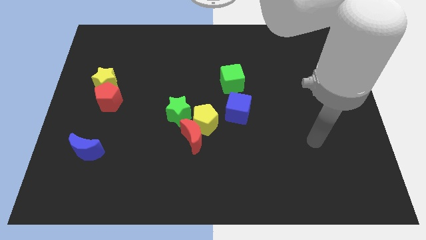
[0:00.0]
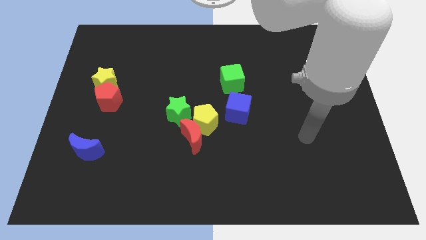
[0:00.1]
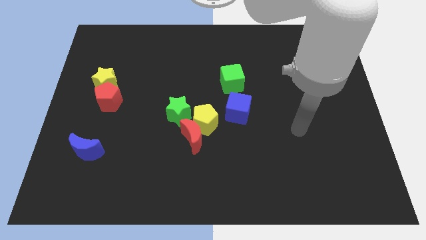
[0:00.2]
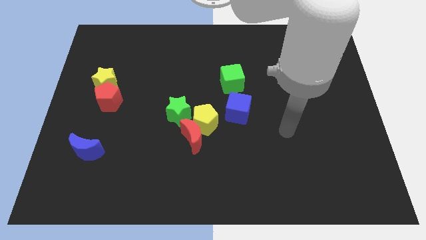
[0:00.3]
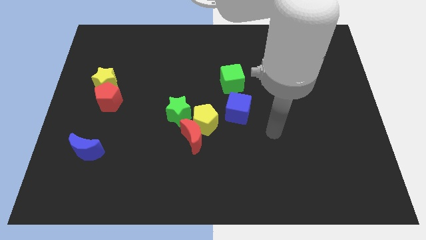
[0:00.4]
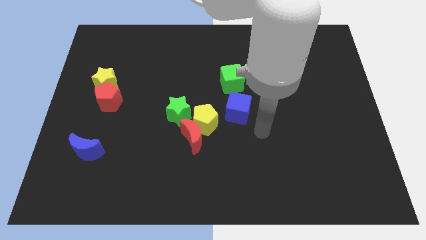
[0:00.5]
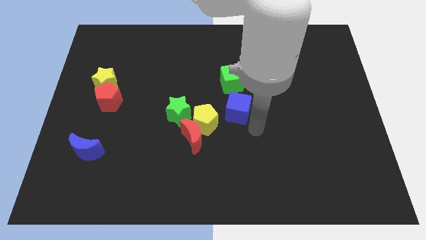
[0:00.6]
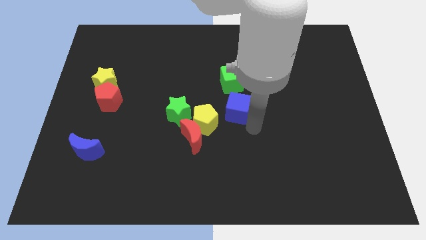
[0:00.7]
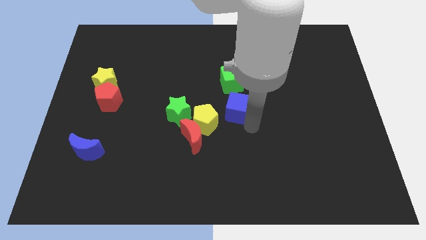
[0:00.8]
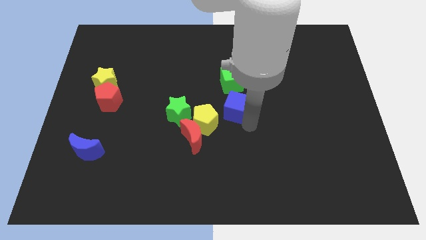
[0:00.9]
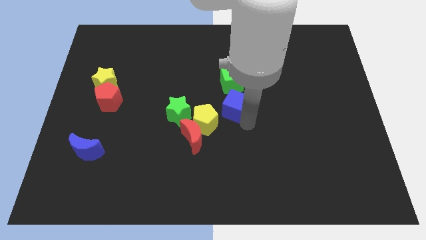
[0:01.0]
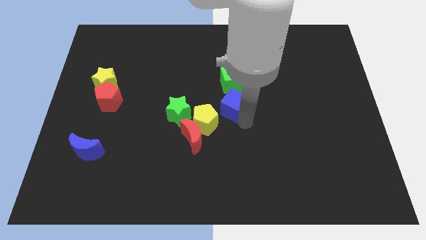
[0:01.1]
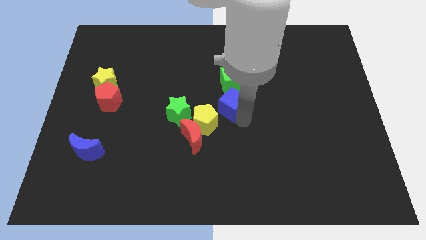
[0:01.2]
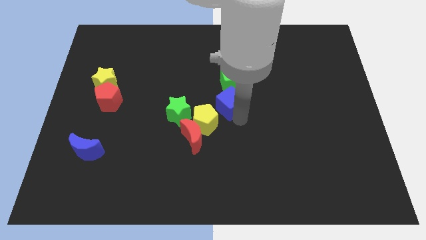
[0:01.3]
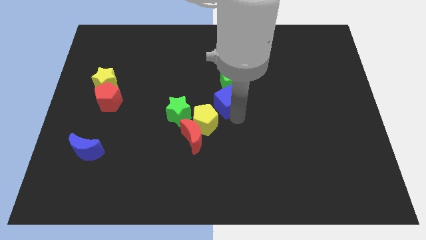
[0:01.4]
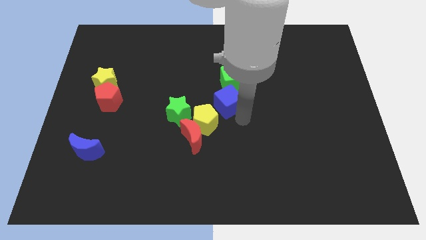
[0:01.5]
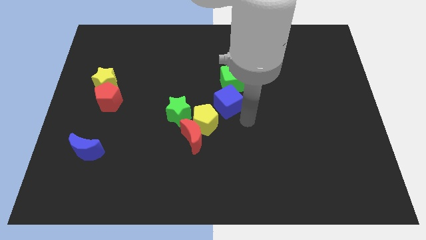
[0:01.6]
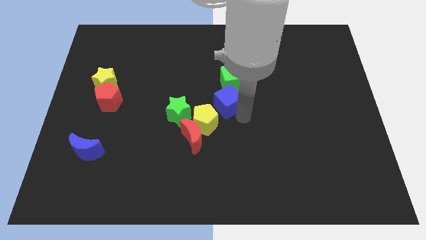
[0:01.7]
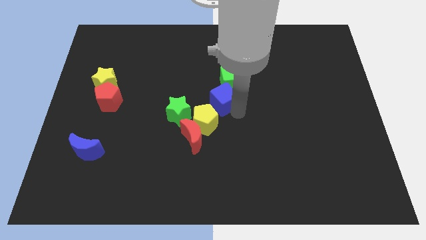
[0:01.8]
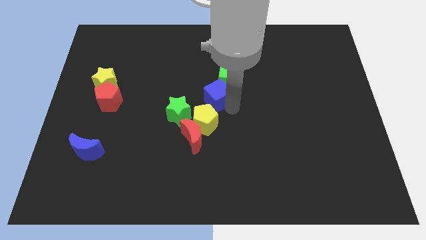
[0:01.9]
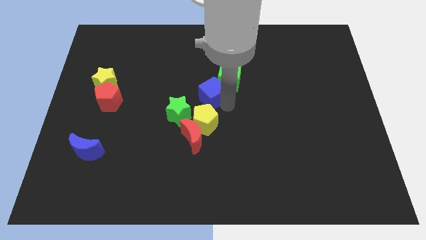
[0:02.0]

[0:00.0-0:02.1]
push the blue cube somewhat up and left

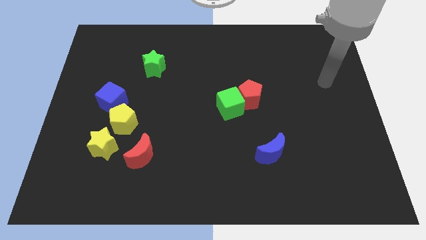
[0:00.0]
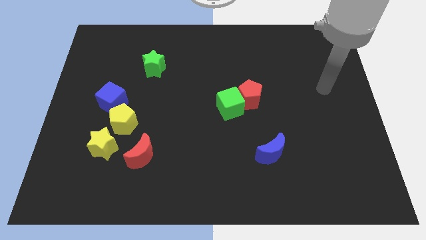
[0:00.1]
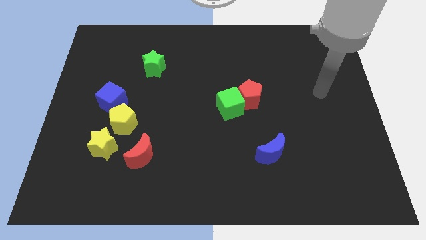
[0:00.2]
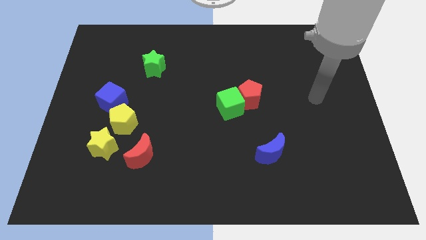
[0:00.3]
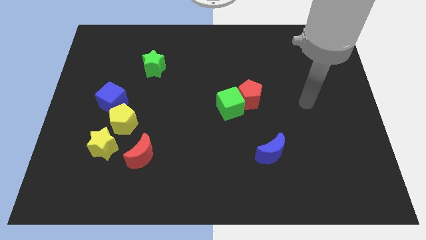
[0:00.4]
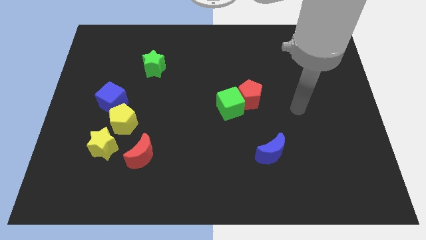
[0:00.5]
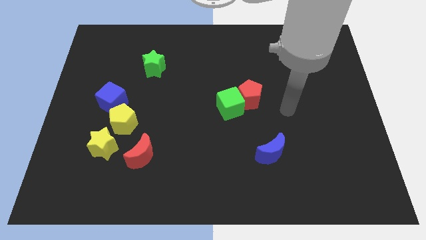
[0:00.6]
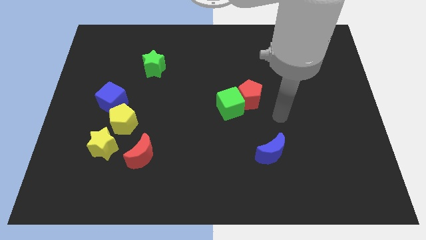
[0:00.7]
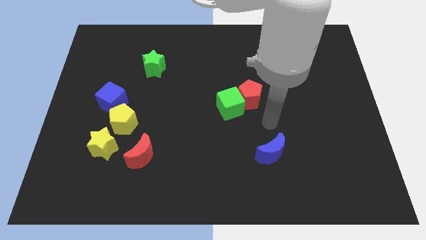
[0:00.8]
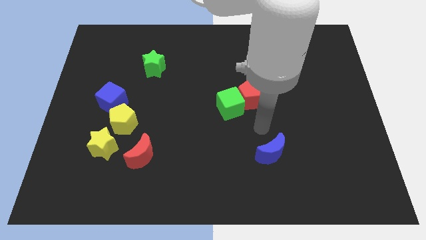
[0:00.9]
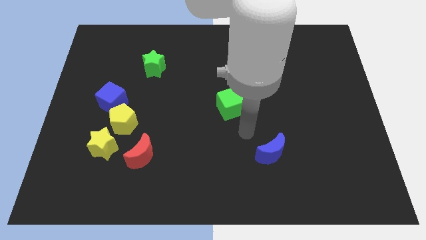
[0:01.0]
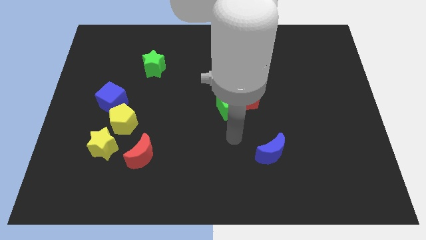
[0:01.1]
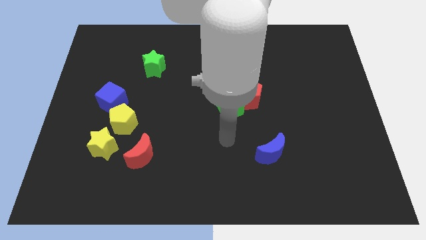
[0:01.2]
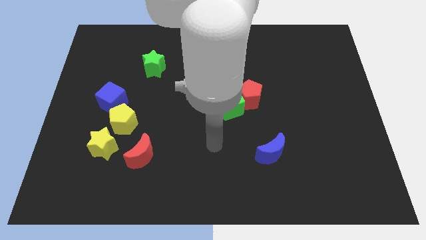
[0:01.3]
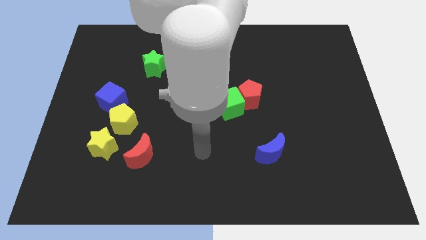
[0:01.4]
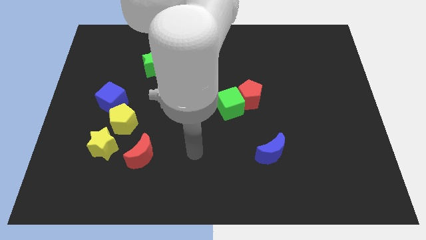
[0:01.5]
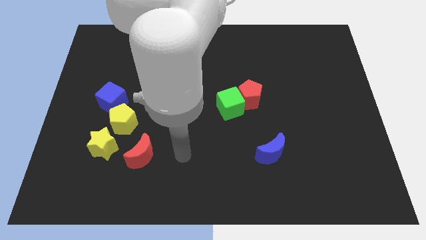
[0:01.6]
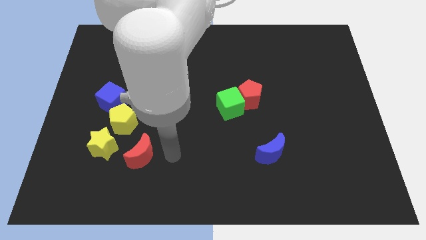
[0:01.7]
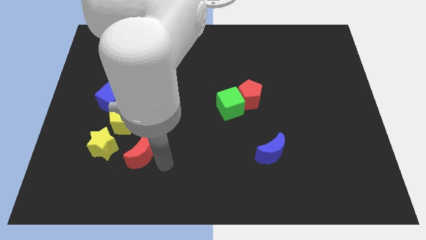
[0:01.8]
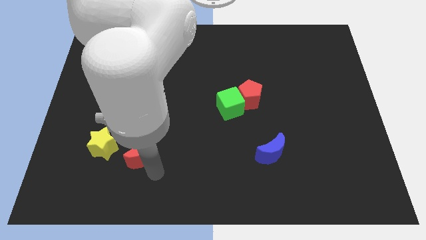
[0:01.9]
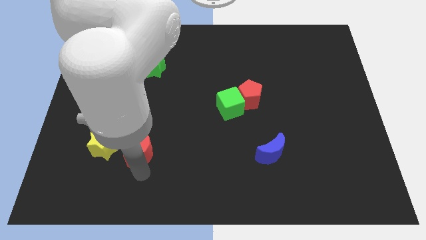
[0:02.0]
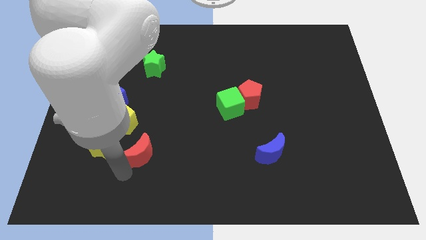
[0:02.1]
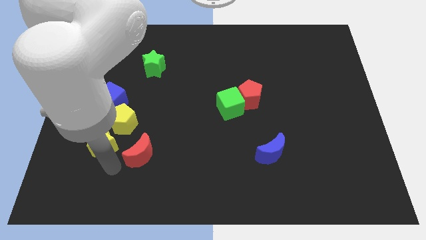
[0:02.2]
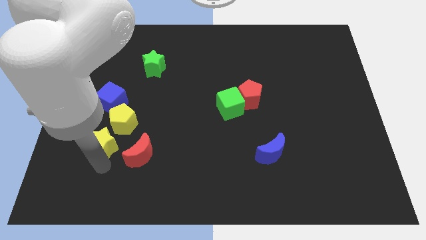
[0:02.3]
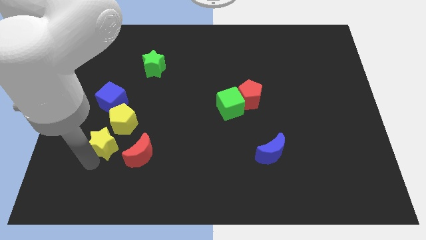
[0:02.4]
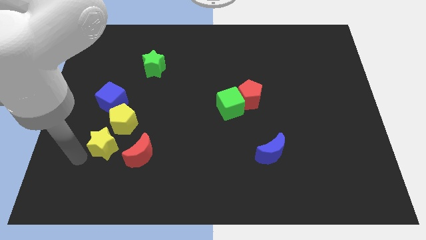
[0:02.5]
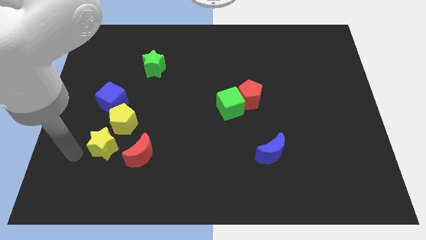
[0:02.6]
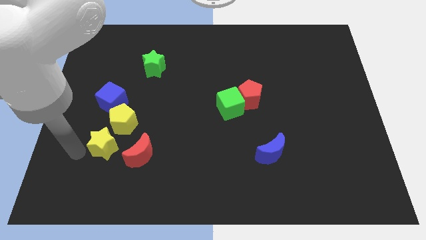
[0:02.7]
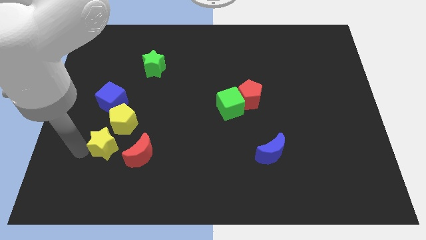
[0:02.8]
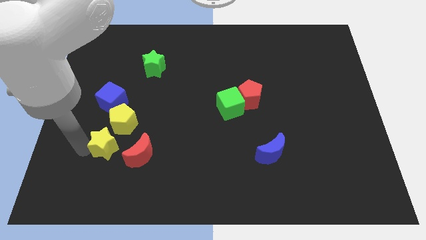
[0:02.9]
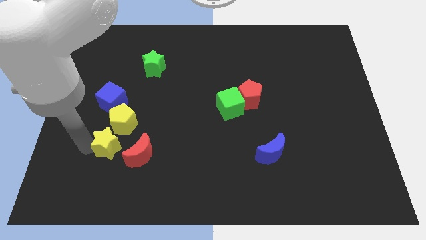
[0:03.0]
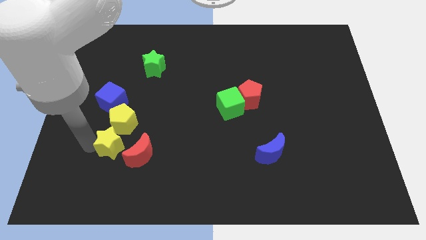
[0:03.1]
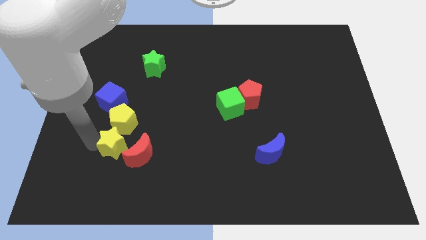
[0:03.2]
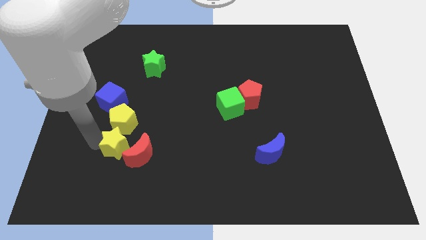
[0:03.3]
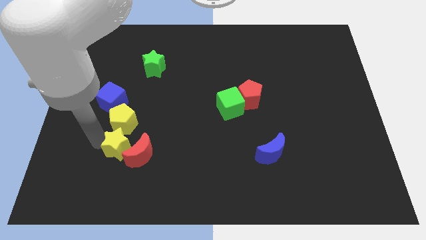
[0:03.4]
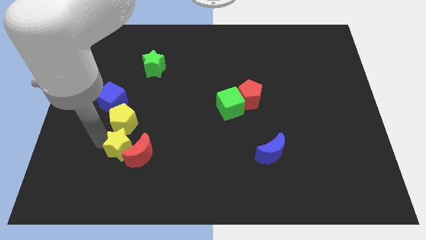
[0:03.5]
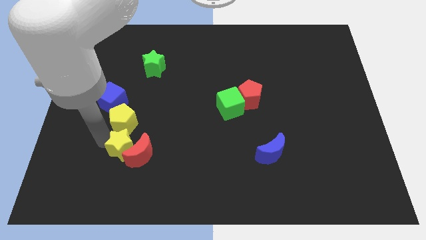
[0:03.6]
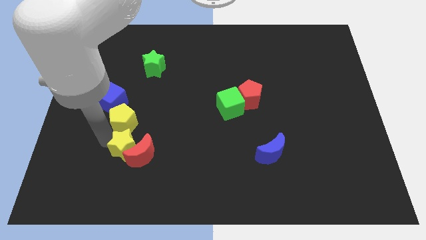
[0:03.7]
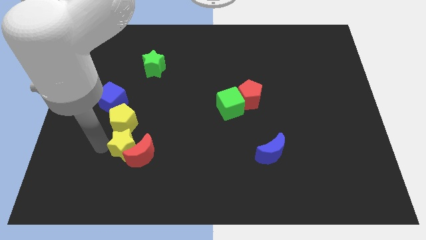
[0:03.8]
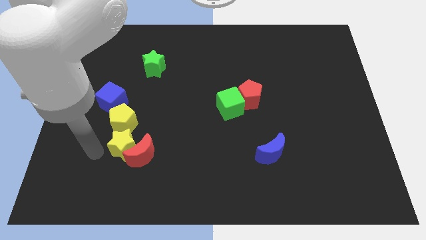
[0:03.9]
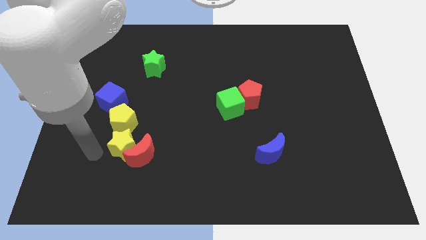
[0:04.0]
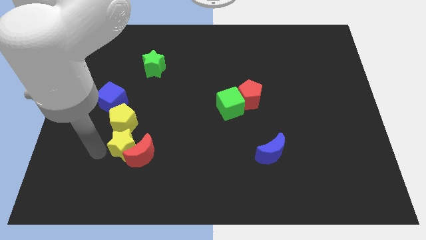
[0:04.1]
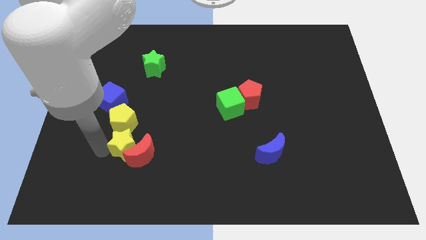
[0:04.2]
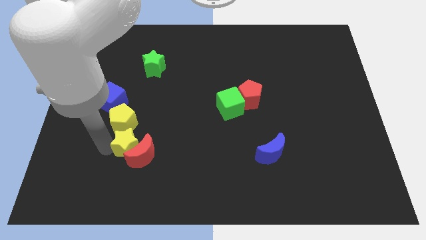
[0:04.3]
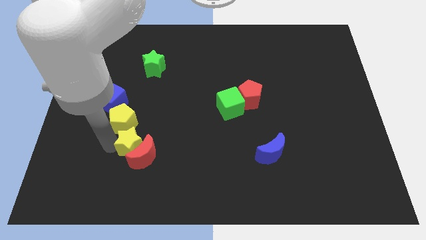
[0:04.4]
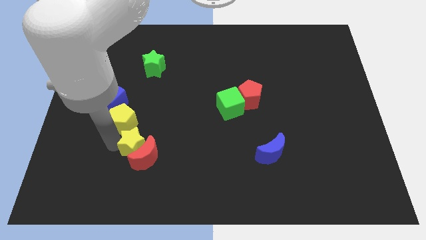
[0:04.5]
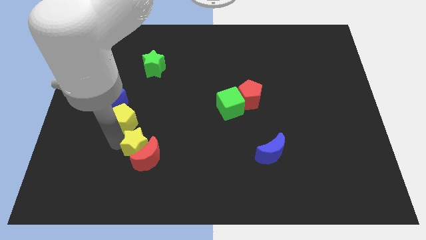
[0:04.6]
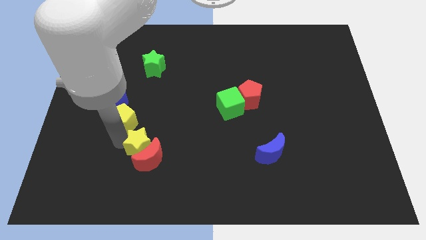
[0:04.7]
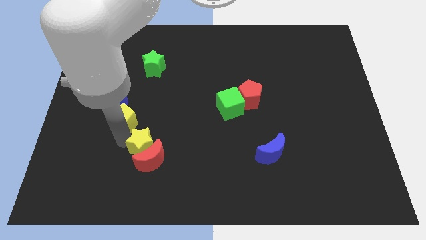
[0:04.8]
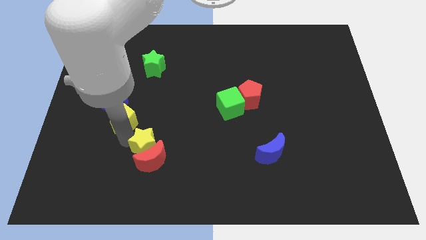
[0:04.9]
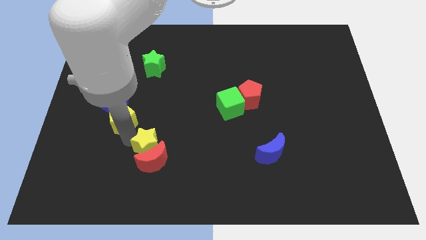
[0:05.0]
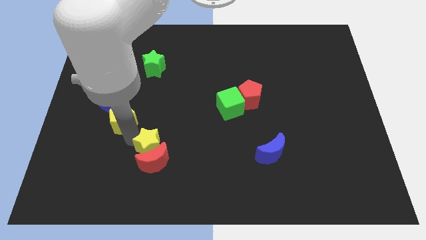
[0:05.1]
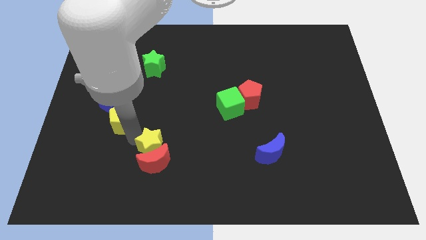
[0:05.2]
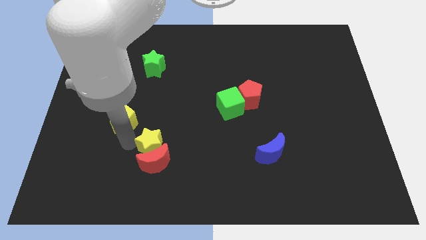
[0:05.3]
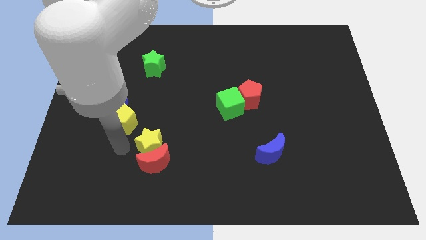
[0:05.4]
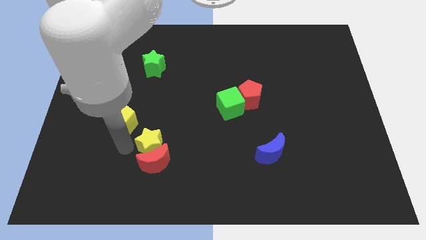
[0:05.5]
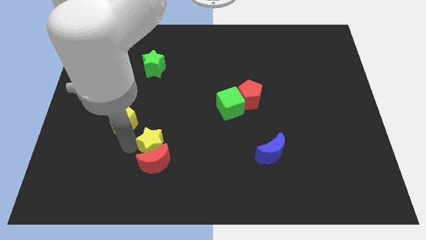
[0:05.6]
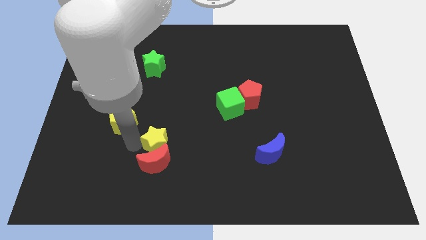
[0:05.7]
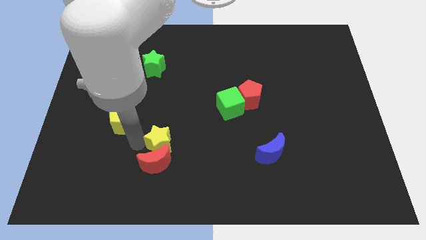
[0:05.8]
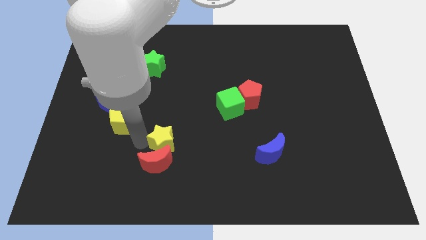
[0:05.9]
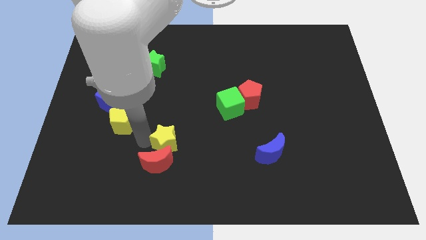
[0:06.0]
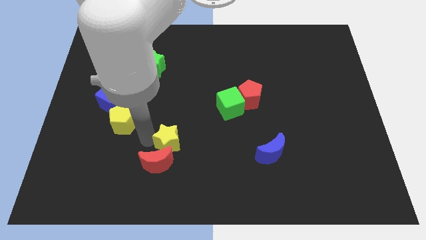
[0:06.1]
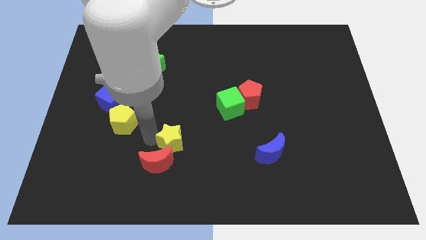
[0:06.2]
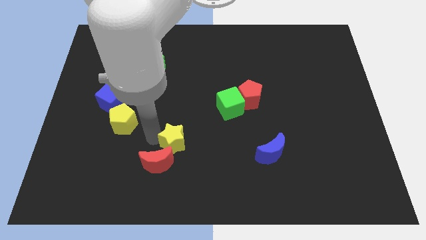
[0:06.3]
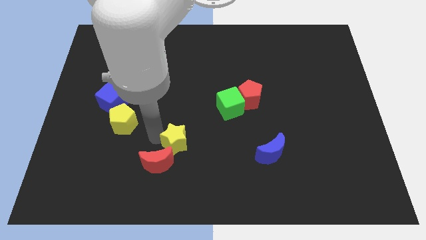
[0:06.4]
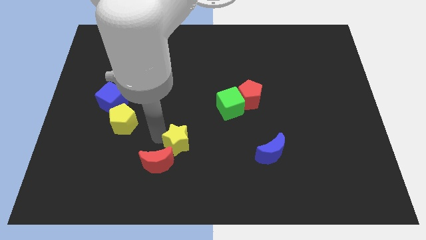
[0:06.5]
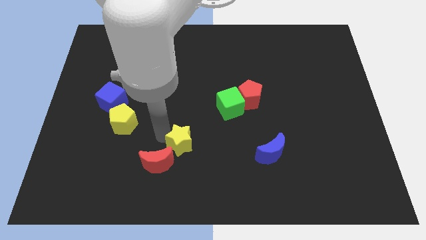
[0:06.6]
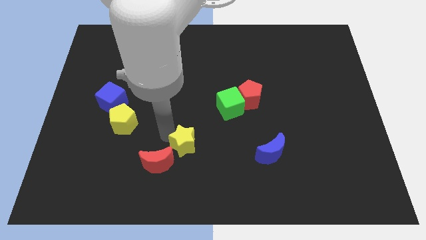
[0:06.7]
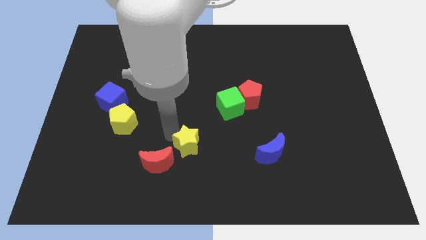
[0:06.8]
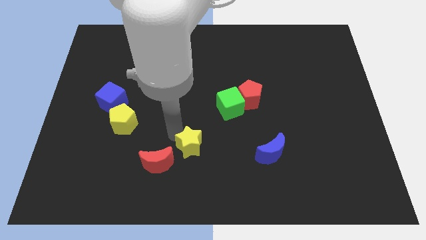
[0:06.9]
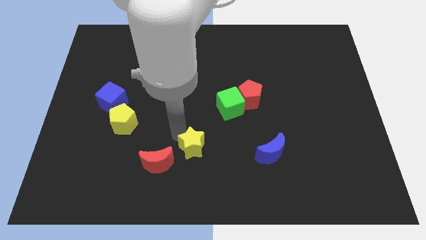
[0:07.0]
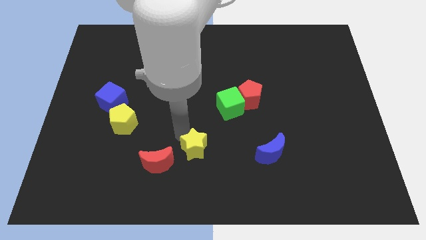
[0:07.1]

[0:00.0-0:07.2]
slide the yellow star right
